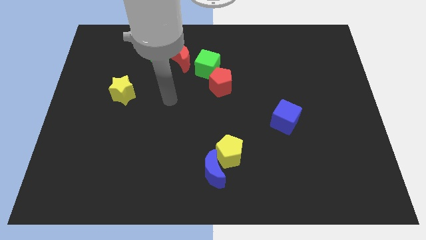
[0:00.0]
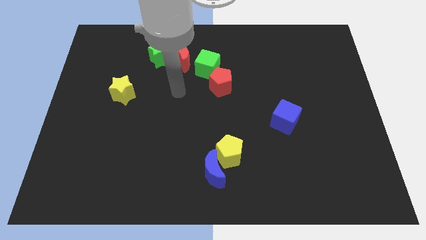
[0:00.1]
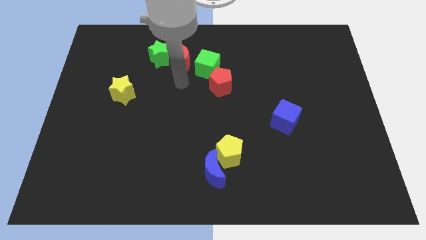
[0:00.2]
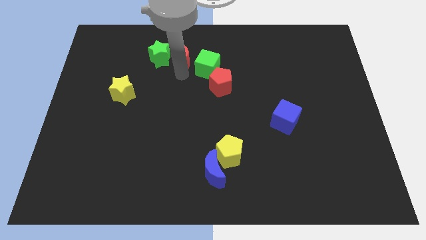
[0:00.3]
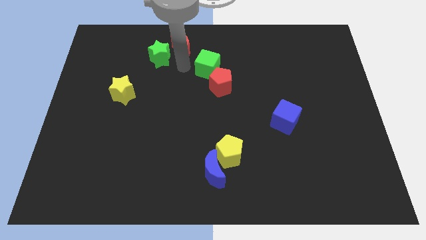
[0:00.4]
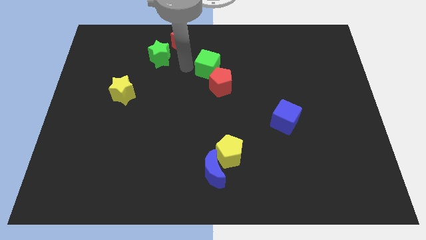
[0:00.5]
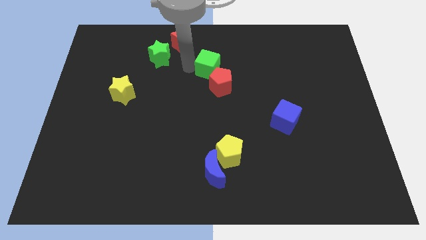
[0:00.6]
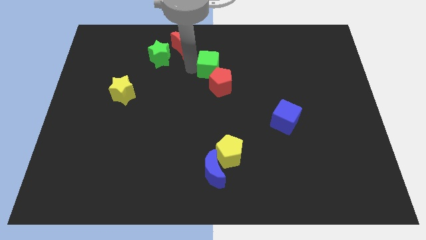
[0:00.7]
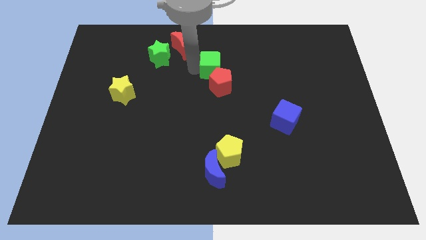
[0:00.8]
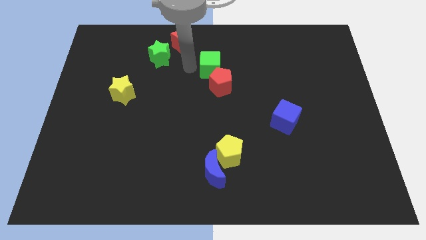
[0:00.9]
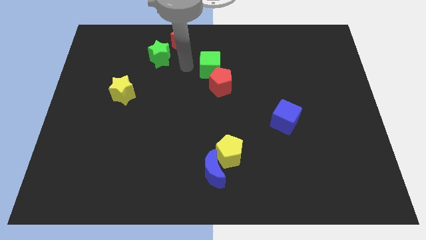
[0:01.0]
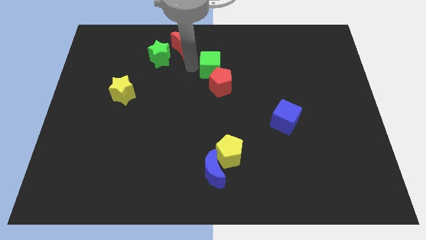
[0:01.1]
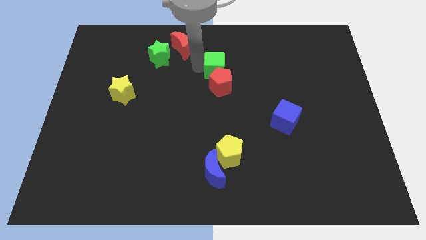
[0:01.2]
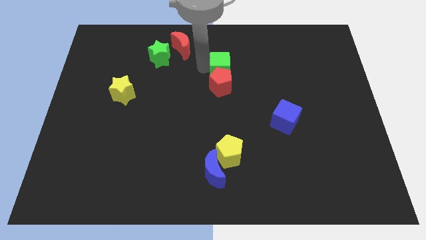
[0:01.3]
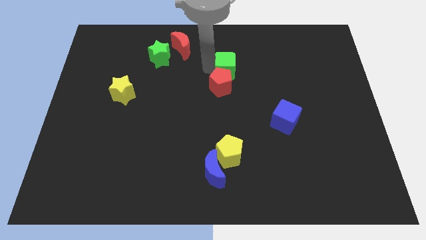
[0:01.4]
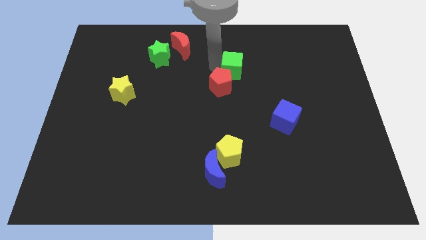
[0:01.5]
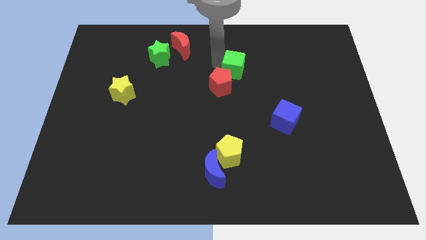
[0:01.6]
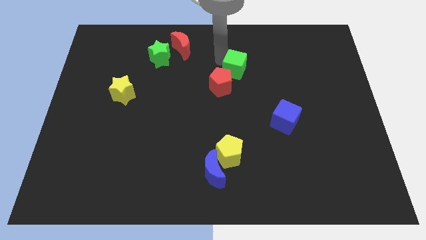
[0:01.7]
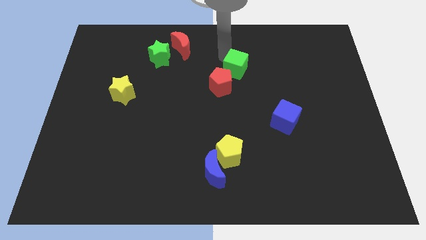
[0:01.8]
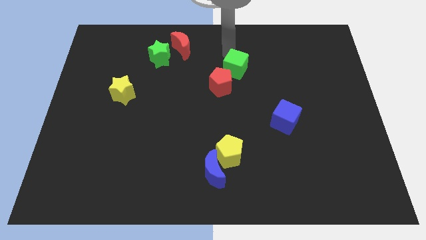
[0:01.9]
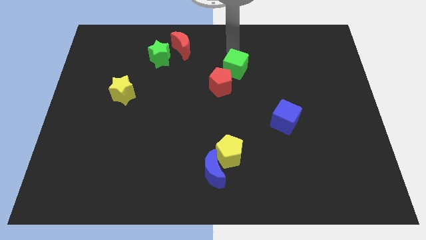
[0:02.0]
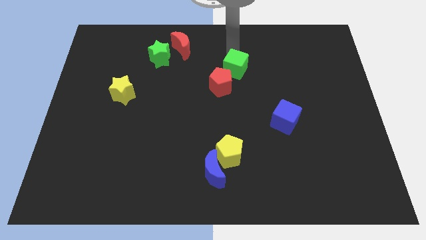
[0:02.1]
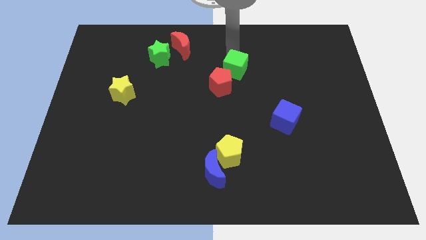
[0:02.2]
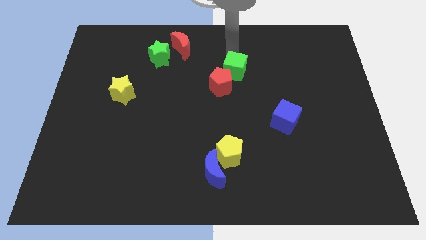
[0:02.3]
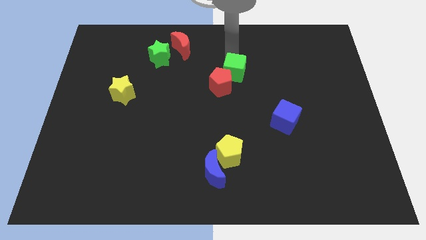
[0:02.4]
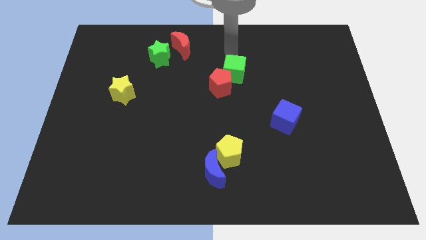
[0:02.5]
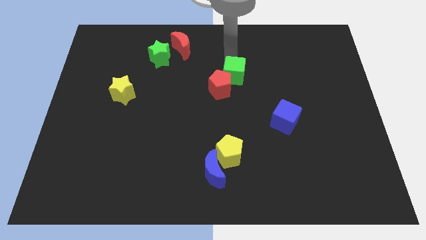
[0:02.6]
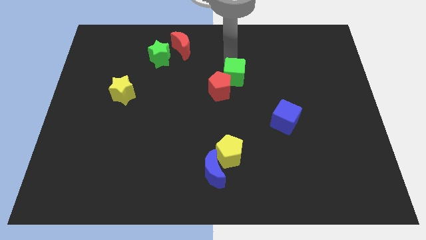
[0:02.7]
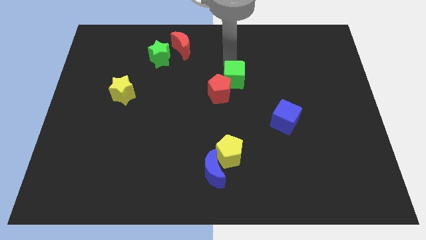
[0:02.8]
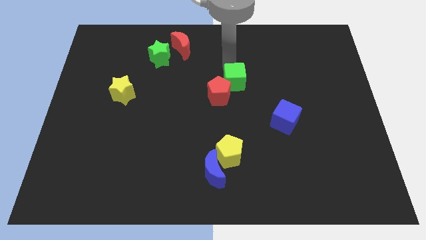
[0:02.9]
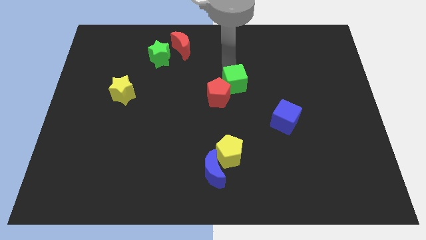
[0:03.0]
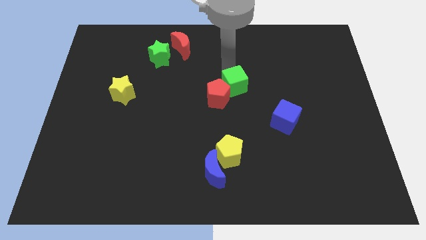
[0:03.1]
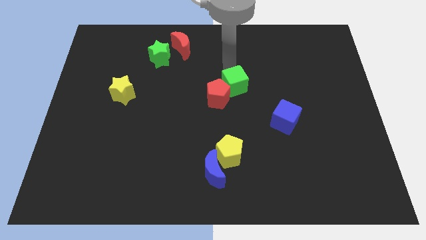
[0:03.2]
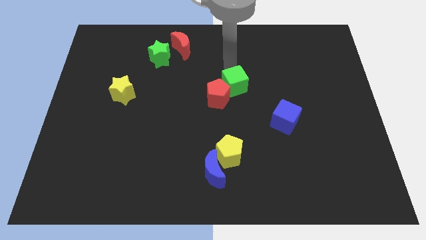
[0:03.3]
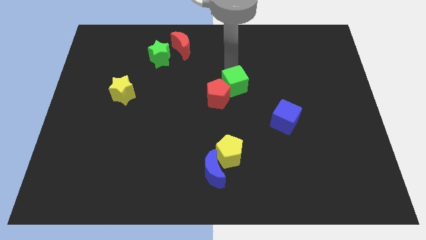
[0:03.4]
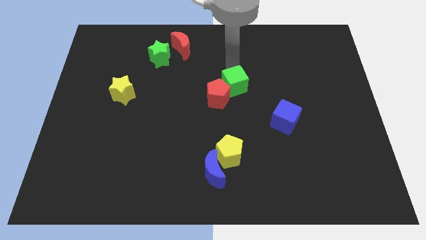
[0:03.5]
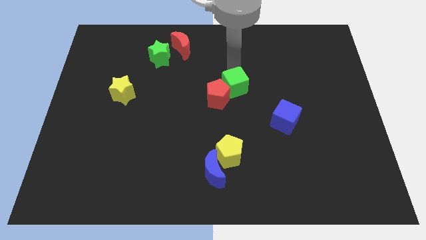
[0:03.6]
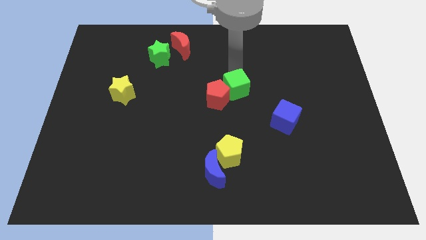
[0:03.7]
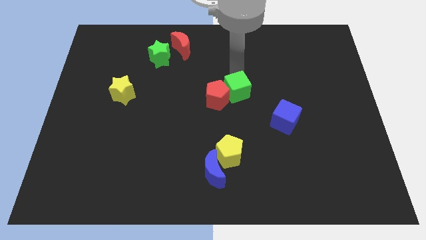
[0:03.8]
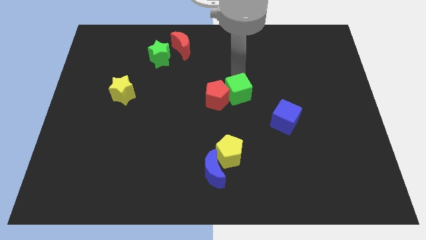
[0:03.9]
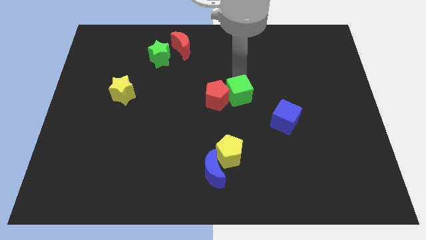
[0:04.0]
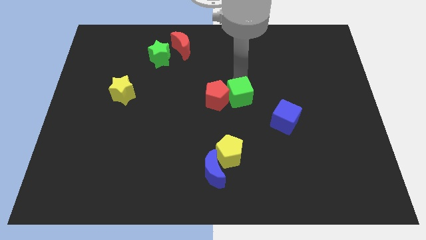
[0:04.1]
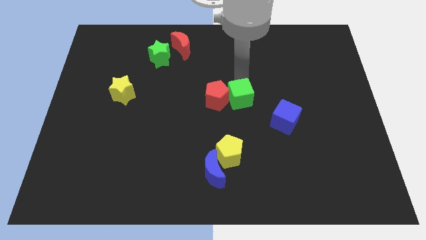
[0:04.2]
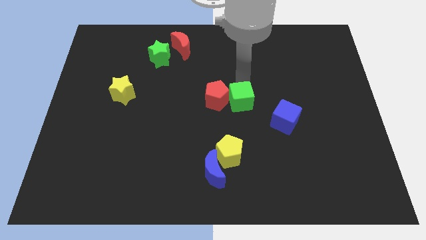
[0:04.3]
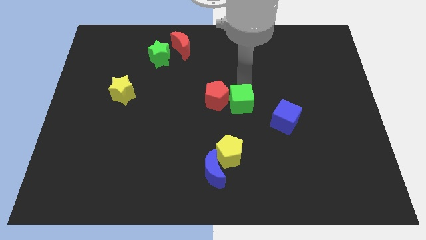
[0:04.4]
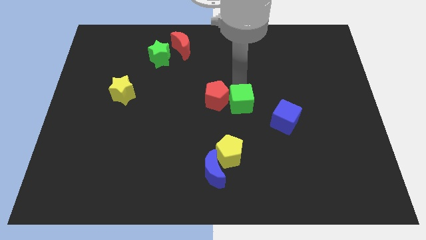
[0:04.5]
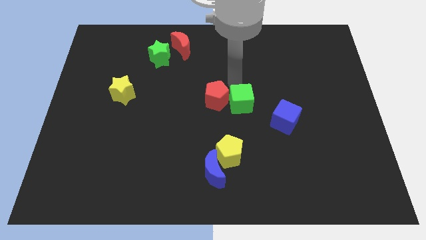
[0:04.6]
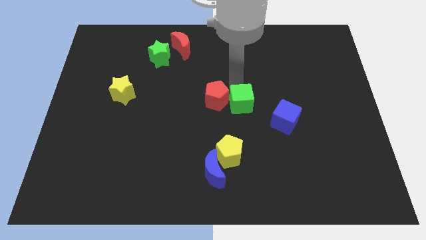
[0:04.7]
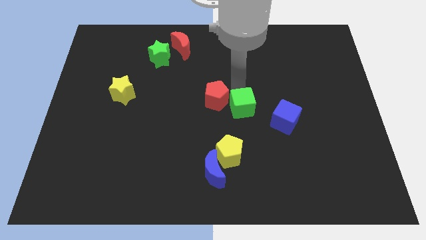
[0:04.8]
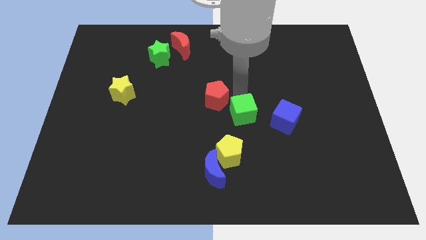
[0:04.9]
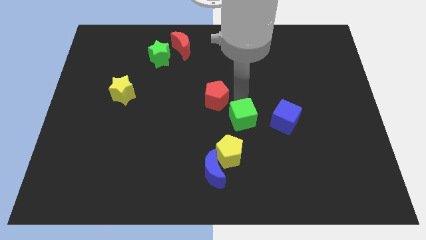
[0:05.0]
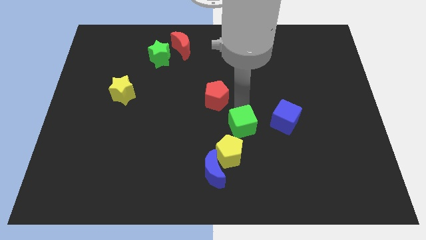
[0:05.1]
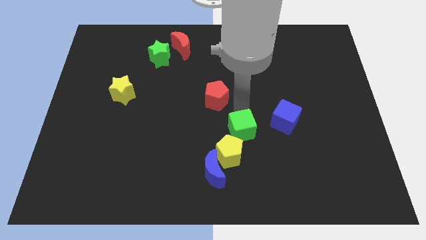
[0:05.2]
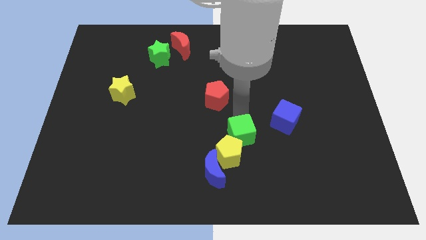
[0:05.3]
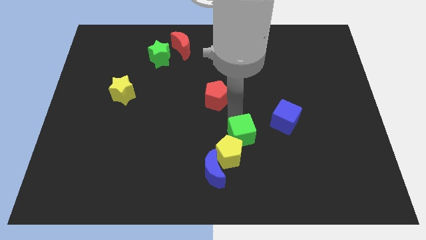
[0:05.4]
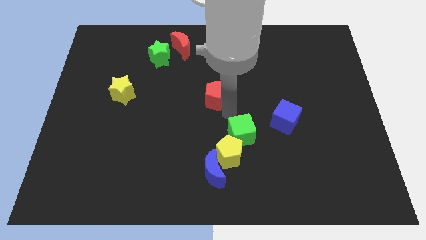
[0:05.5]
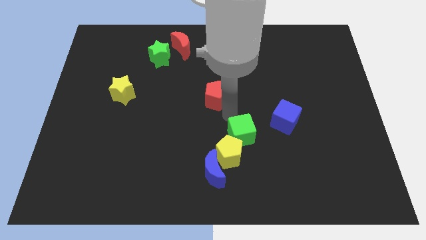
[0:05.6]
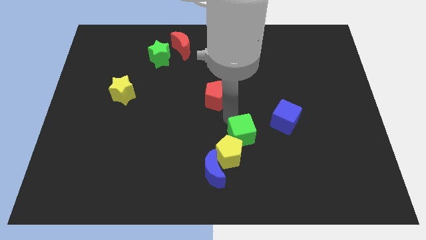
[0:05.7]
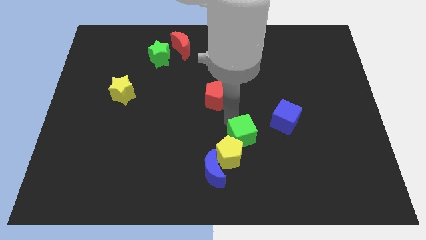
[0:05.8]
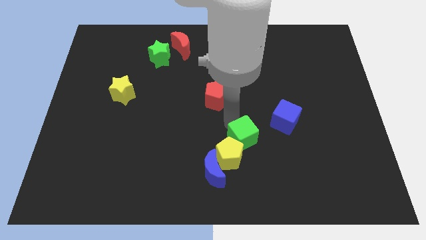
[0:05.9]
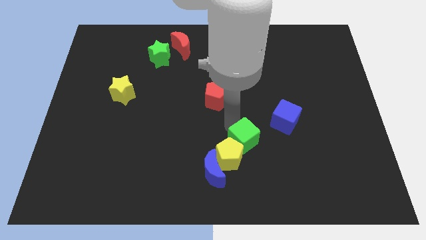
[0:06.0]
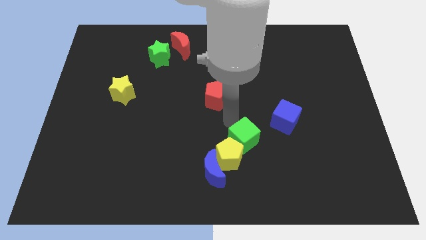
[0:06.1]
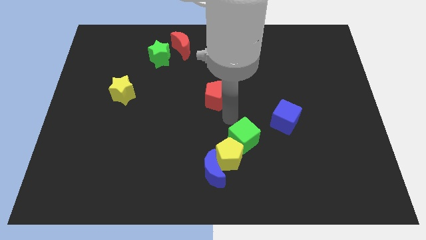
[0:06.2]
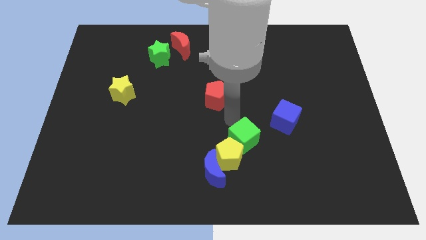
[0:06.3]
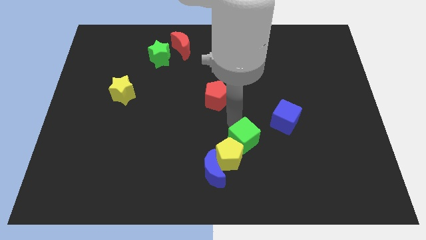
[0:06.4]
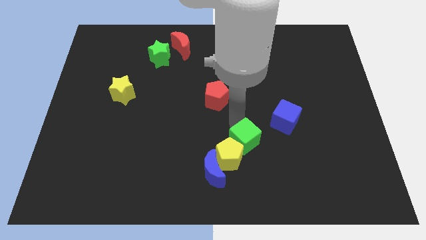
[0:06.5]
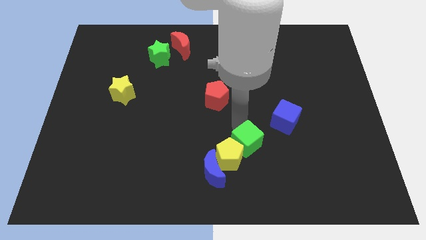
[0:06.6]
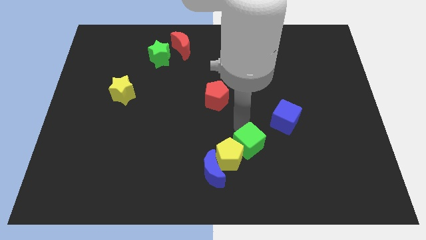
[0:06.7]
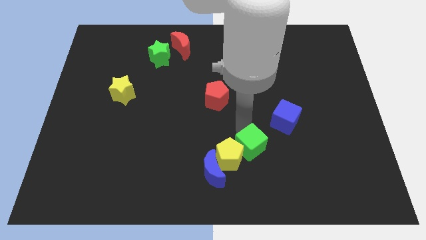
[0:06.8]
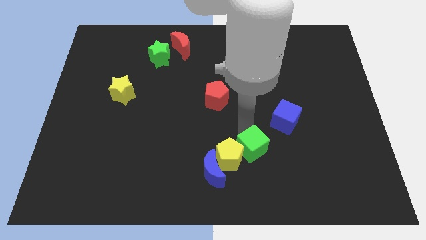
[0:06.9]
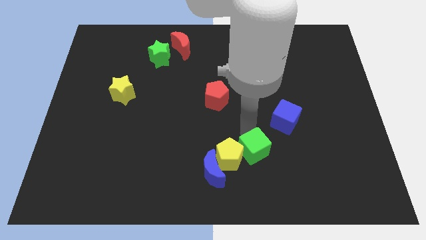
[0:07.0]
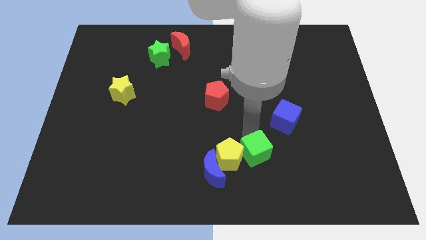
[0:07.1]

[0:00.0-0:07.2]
move the green cube to the right side of the blue moon

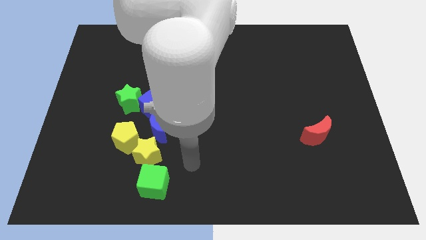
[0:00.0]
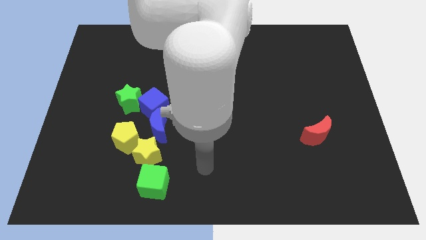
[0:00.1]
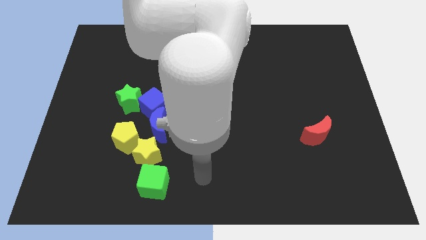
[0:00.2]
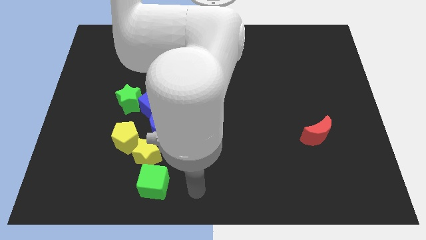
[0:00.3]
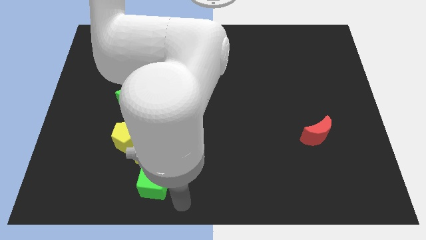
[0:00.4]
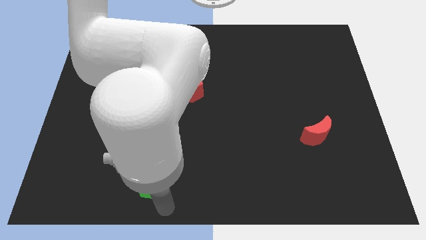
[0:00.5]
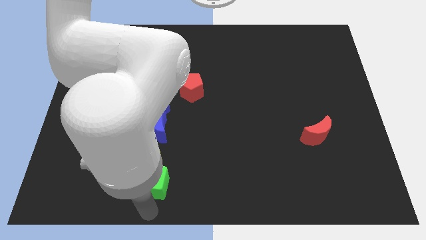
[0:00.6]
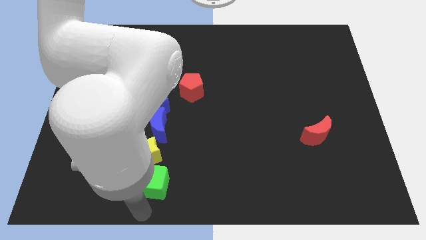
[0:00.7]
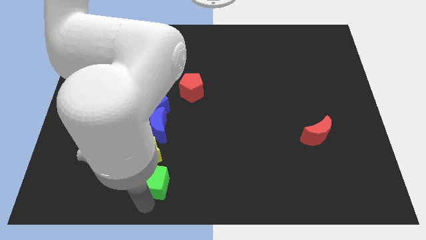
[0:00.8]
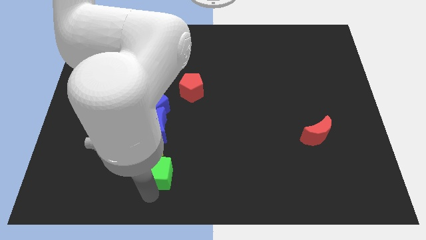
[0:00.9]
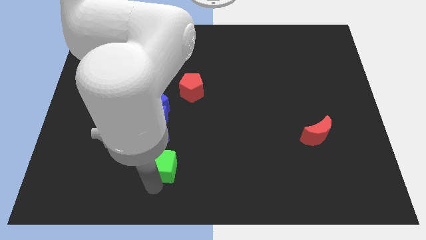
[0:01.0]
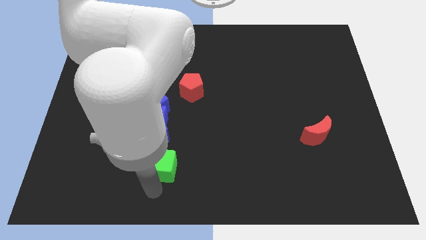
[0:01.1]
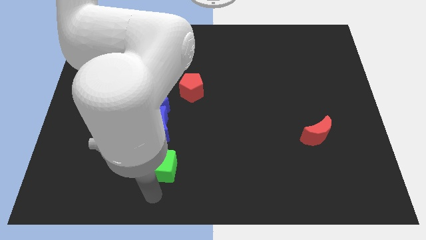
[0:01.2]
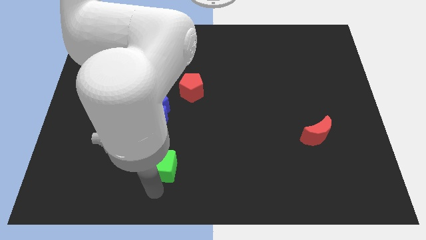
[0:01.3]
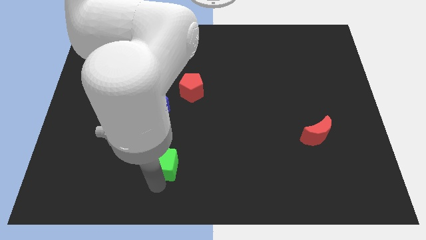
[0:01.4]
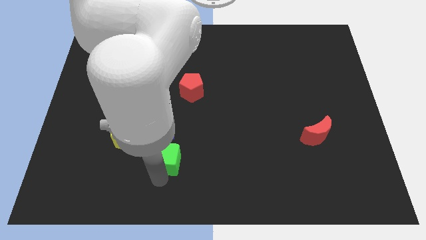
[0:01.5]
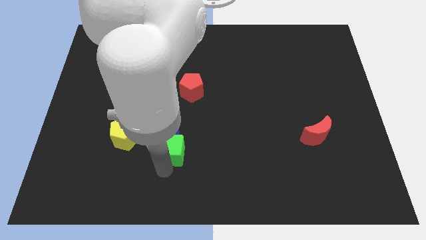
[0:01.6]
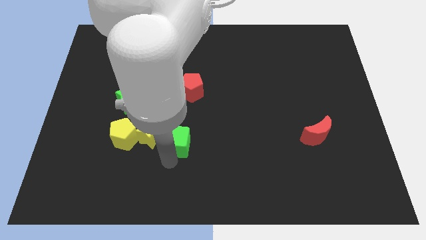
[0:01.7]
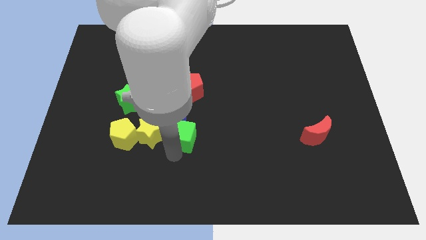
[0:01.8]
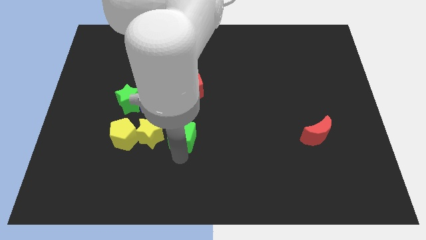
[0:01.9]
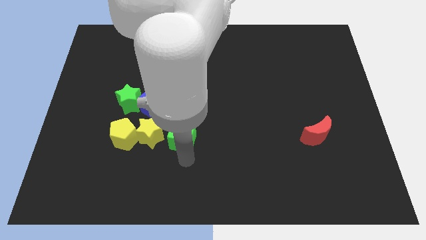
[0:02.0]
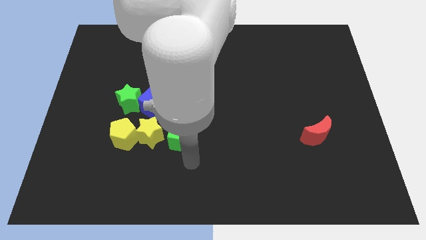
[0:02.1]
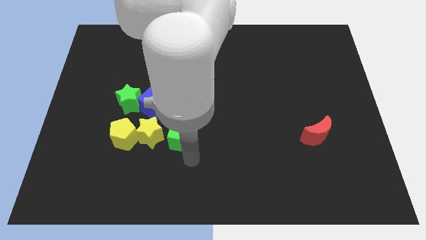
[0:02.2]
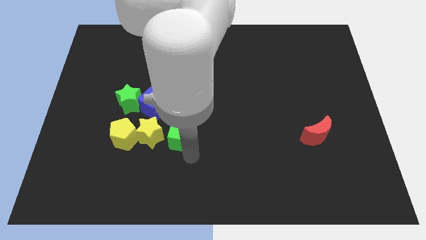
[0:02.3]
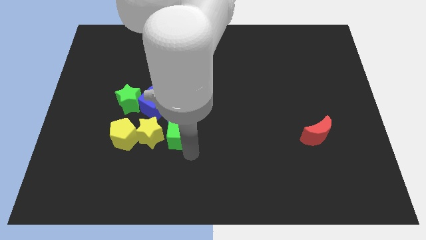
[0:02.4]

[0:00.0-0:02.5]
move the green cube to the top right of the yellow star
